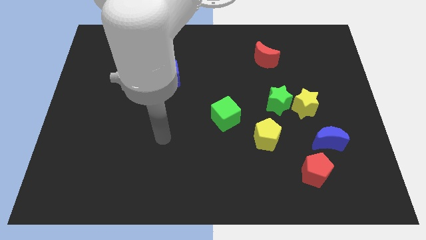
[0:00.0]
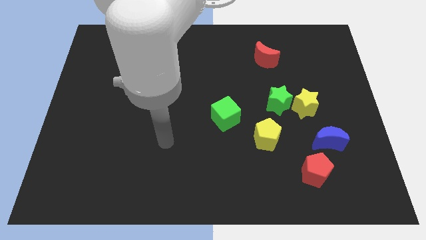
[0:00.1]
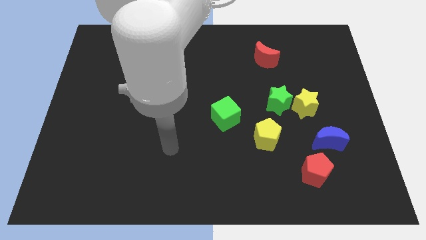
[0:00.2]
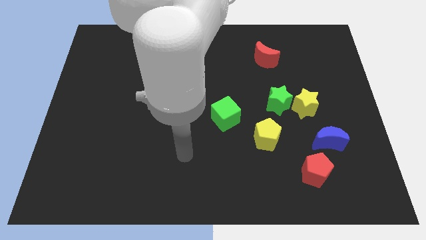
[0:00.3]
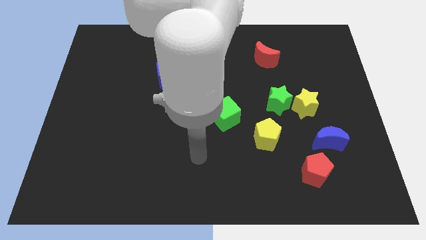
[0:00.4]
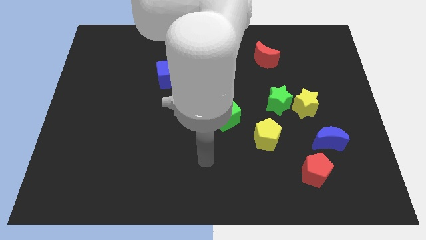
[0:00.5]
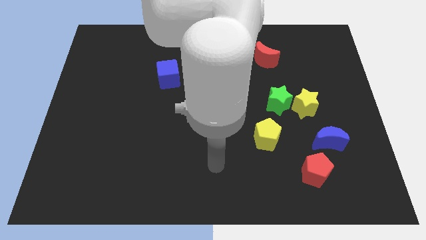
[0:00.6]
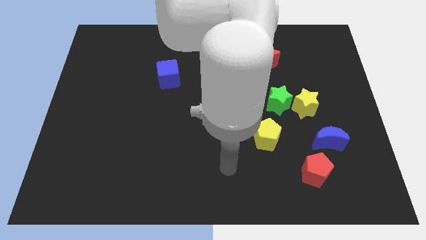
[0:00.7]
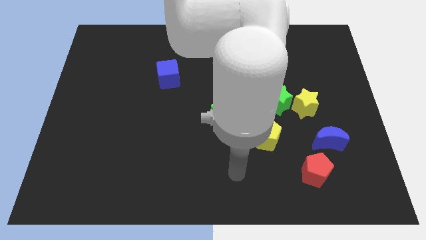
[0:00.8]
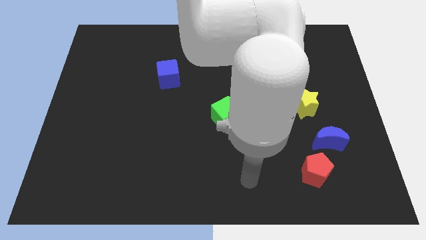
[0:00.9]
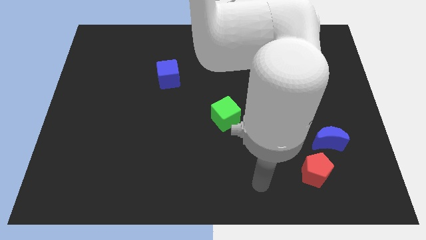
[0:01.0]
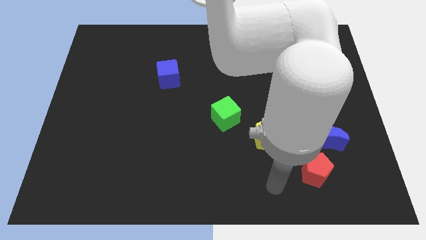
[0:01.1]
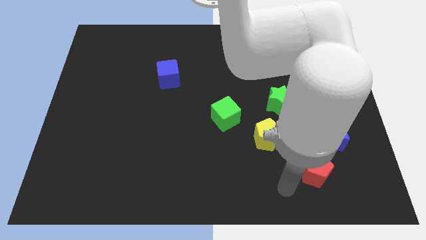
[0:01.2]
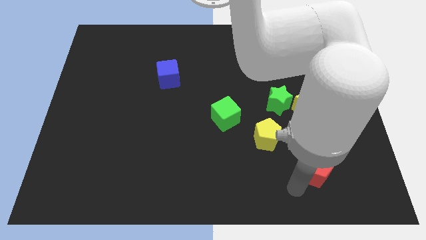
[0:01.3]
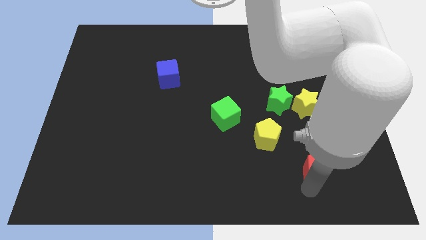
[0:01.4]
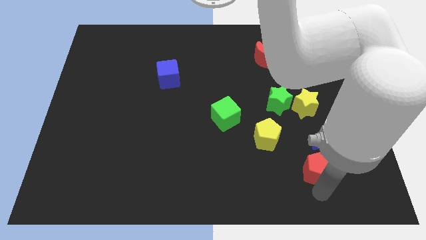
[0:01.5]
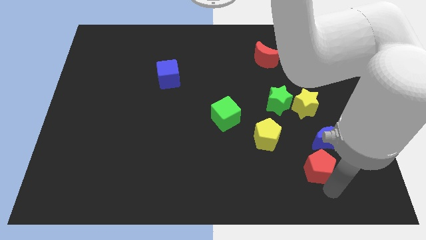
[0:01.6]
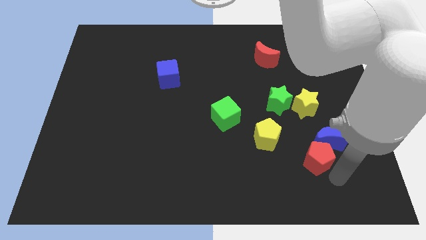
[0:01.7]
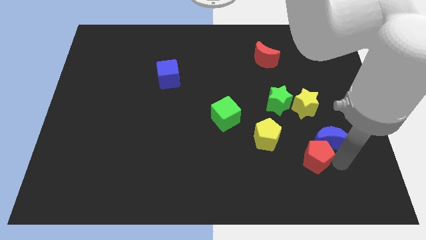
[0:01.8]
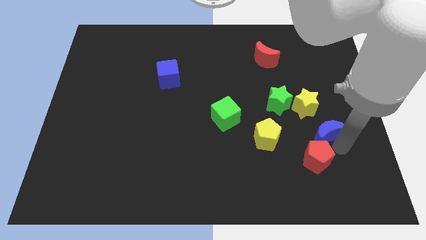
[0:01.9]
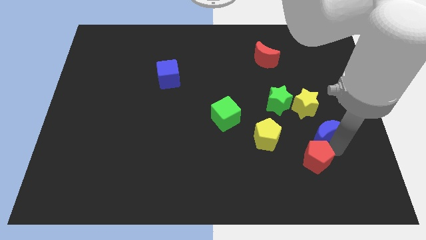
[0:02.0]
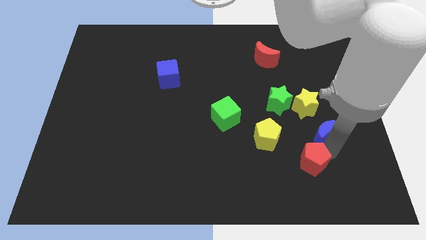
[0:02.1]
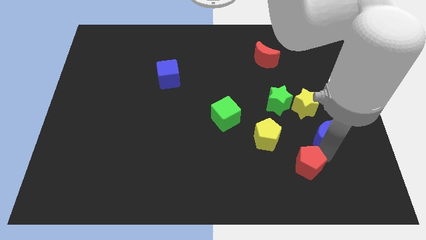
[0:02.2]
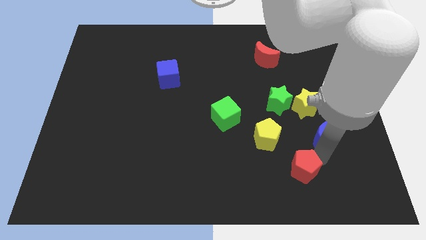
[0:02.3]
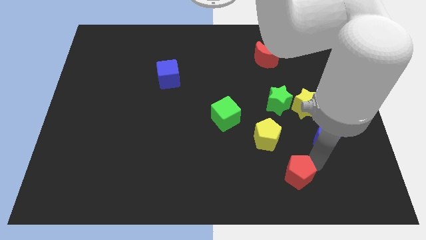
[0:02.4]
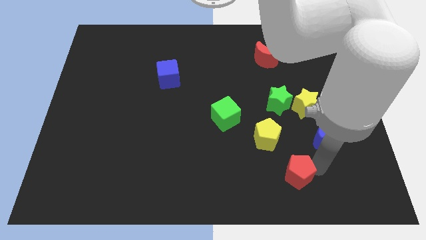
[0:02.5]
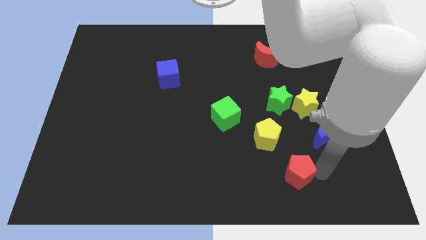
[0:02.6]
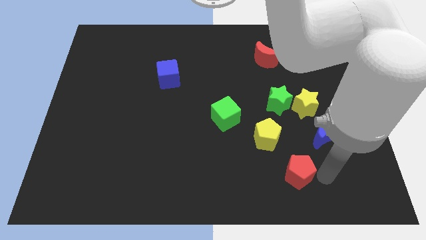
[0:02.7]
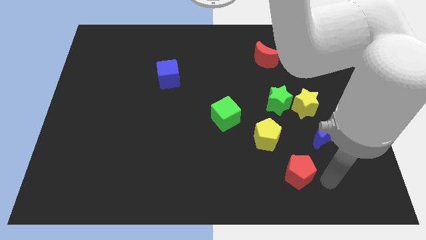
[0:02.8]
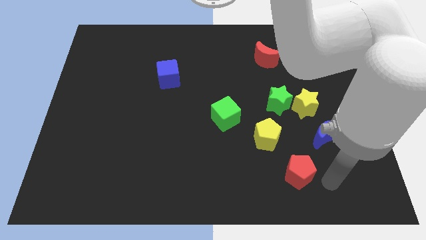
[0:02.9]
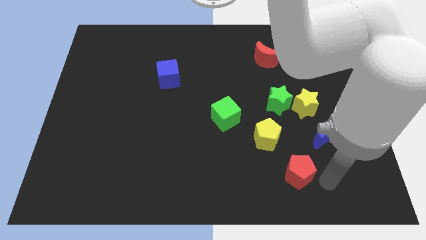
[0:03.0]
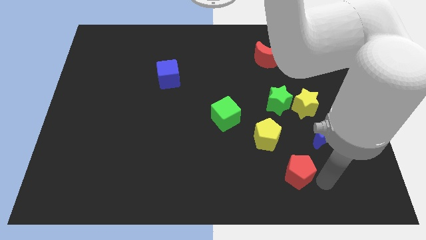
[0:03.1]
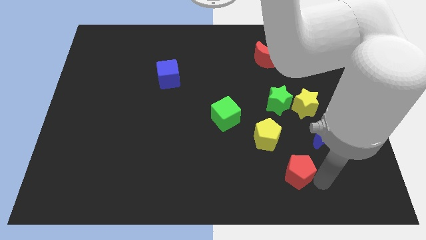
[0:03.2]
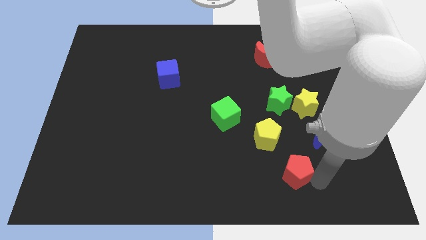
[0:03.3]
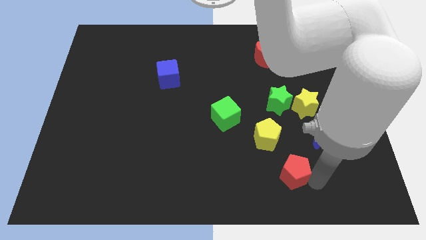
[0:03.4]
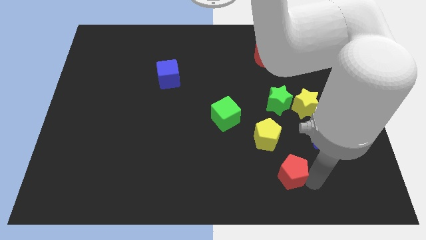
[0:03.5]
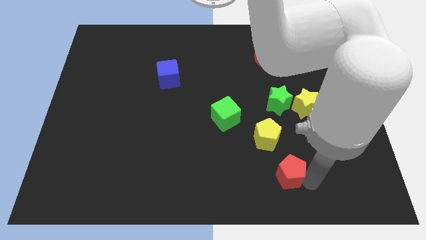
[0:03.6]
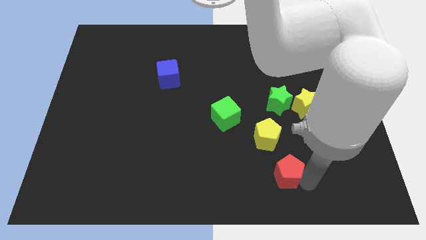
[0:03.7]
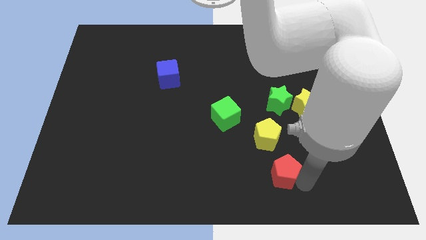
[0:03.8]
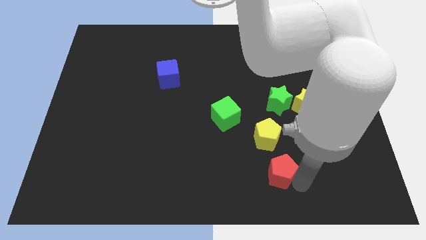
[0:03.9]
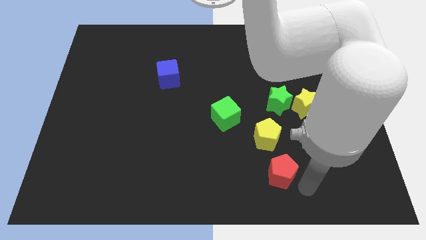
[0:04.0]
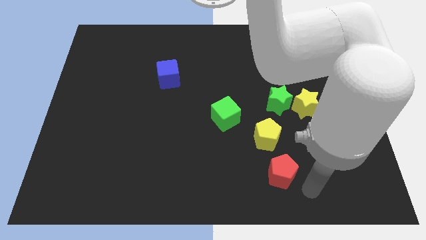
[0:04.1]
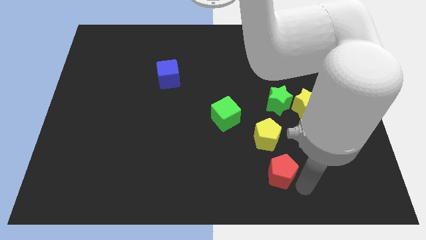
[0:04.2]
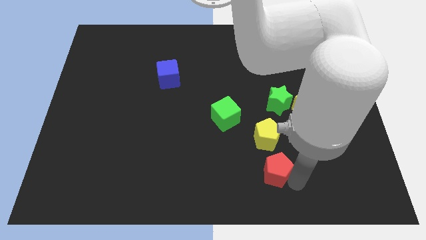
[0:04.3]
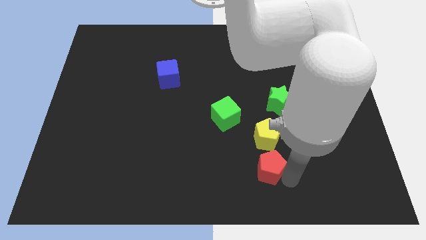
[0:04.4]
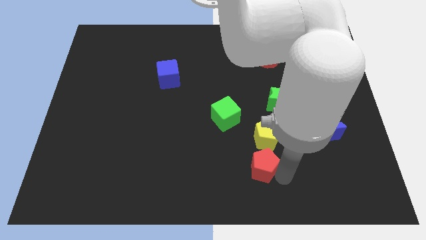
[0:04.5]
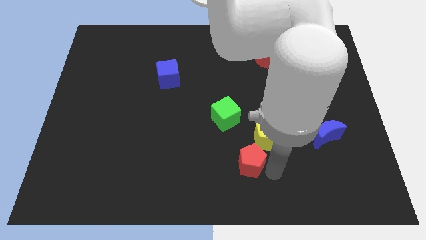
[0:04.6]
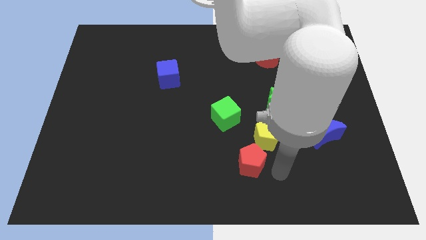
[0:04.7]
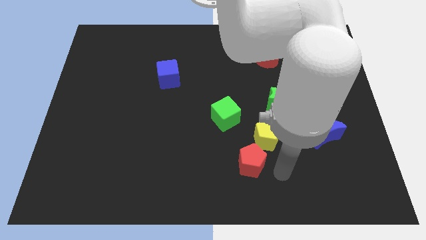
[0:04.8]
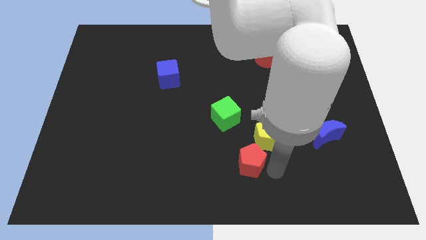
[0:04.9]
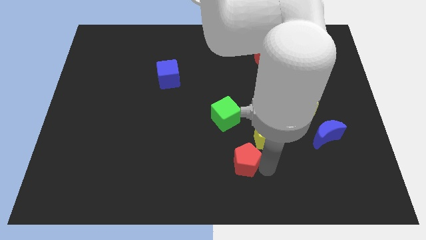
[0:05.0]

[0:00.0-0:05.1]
move the red pentagon below the green cube

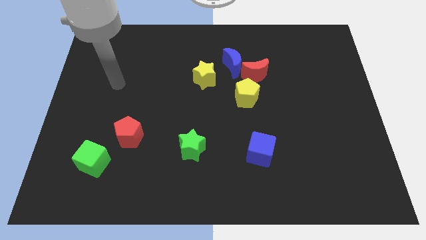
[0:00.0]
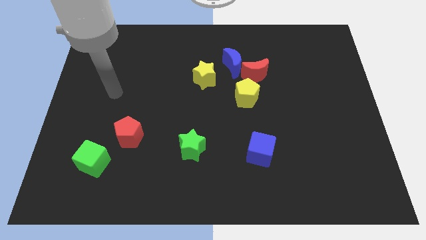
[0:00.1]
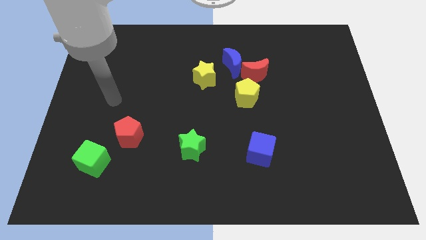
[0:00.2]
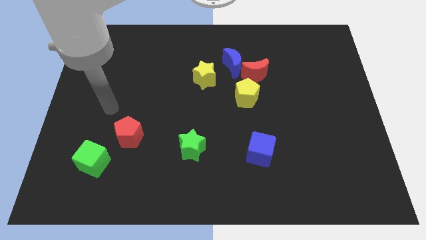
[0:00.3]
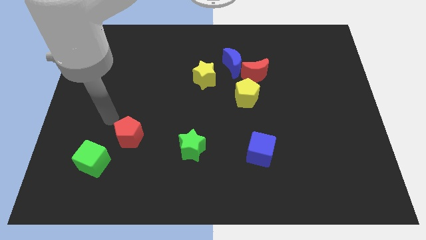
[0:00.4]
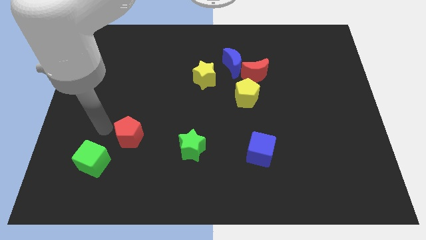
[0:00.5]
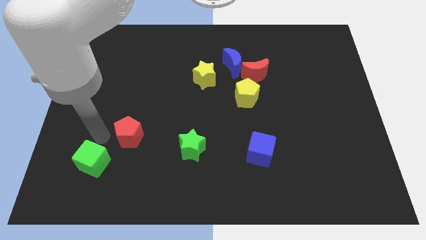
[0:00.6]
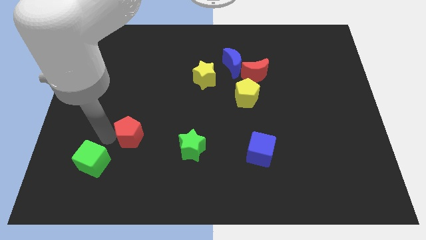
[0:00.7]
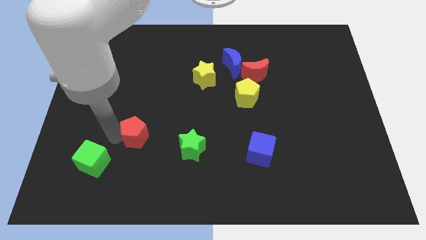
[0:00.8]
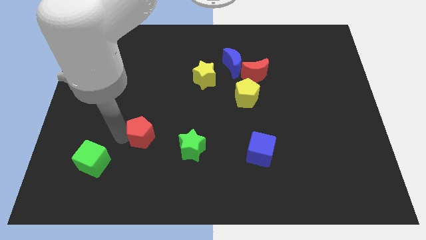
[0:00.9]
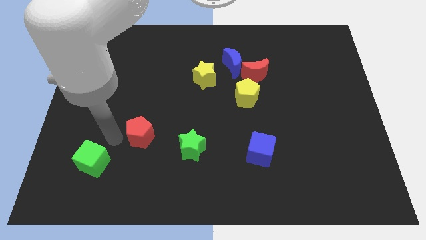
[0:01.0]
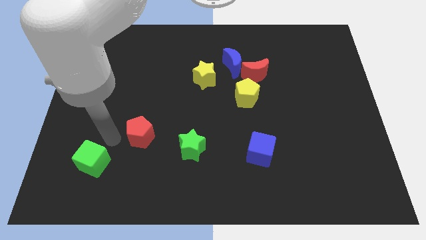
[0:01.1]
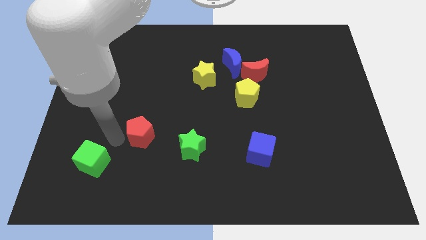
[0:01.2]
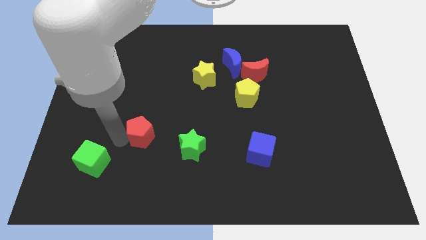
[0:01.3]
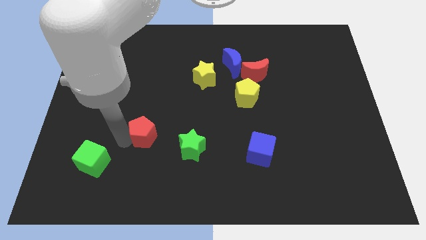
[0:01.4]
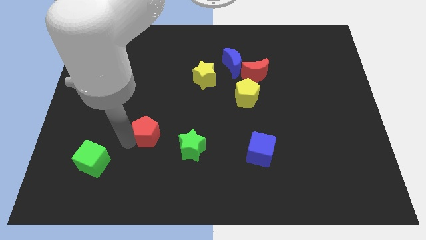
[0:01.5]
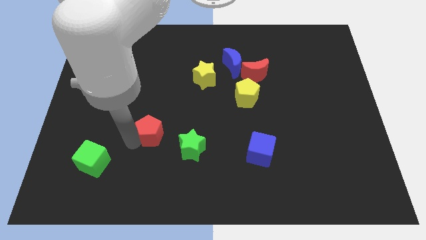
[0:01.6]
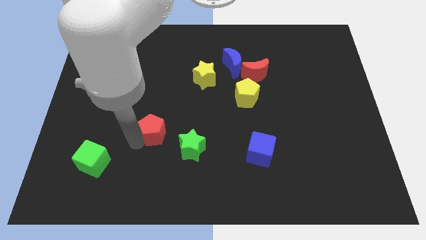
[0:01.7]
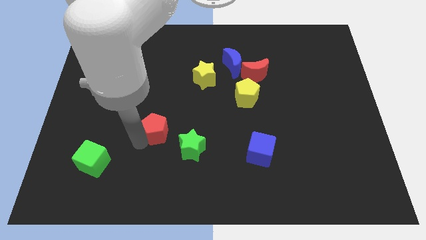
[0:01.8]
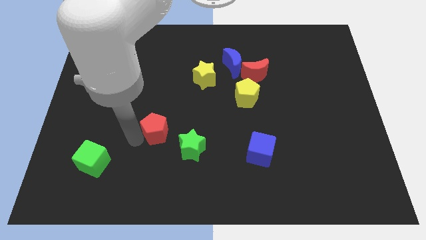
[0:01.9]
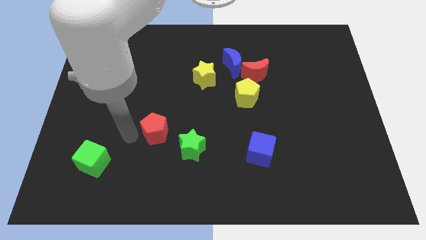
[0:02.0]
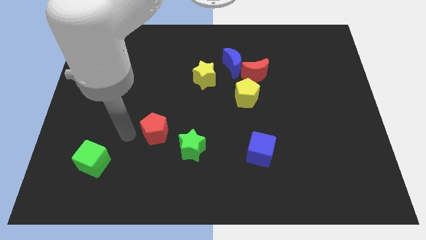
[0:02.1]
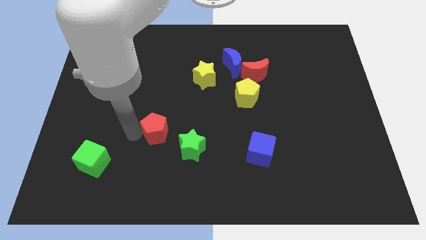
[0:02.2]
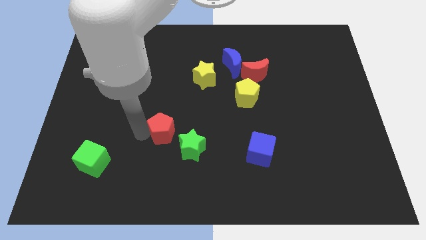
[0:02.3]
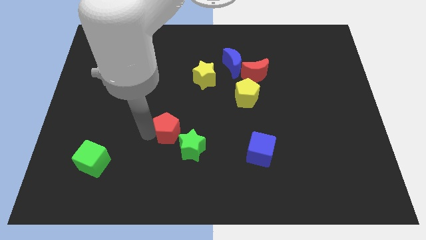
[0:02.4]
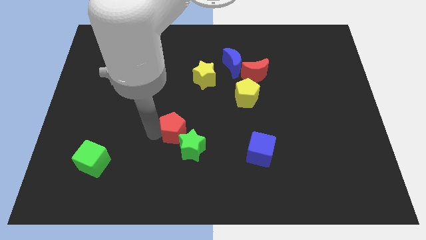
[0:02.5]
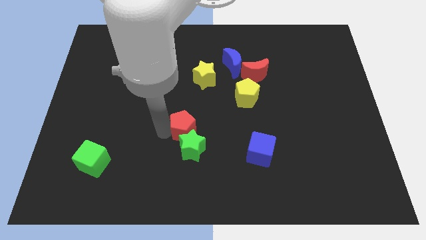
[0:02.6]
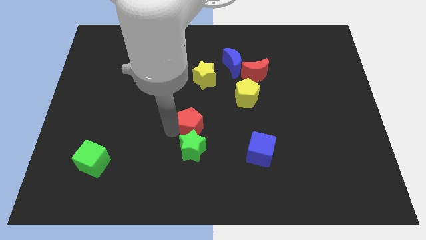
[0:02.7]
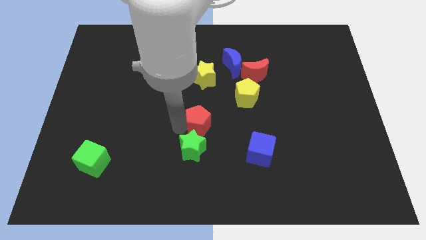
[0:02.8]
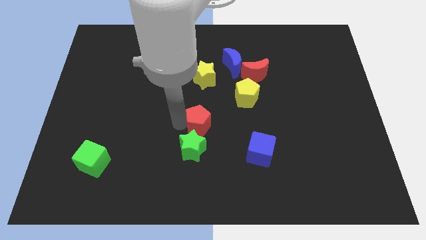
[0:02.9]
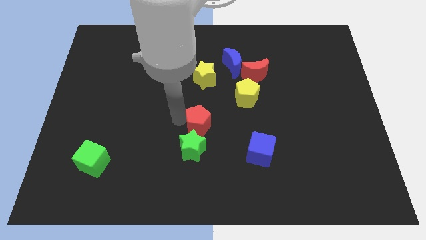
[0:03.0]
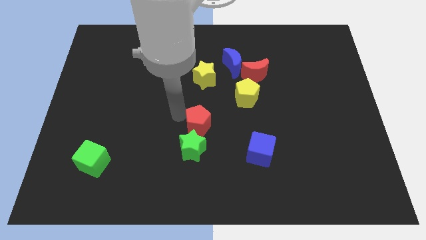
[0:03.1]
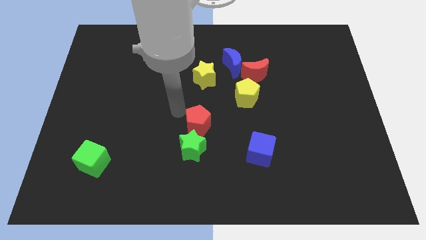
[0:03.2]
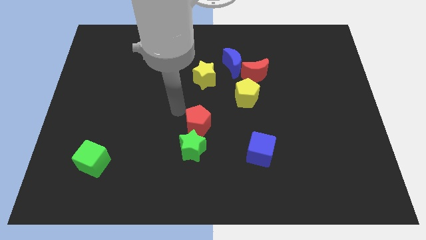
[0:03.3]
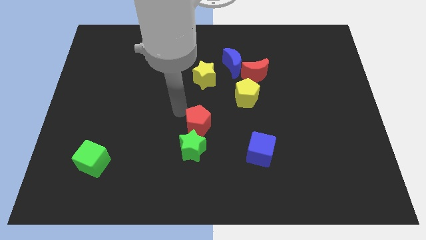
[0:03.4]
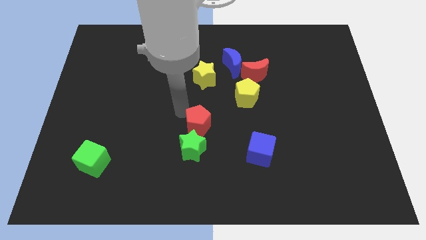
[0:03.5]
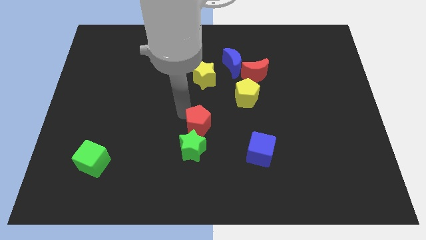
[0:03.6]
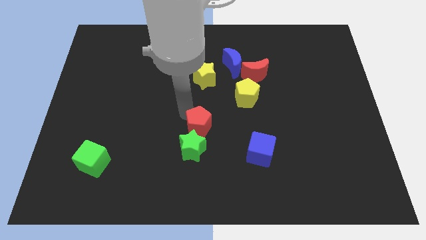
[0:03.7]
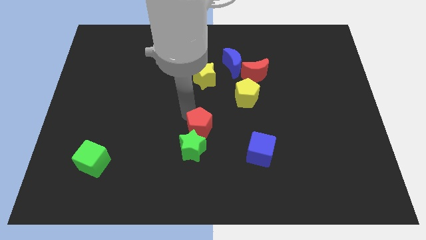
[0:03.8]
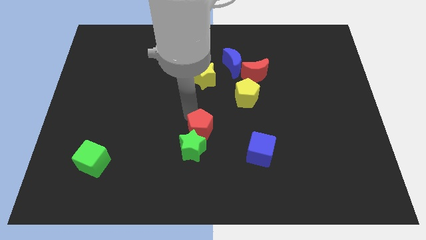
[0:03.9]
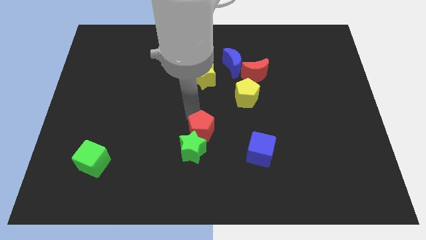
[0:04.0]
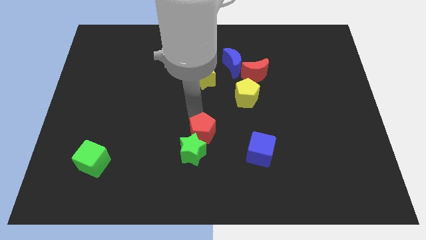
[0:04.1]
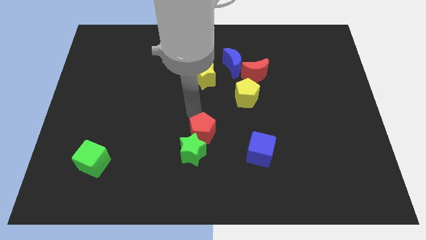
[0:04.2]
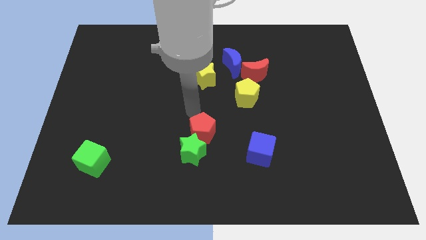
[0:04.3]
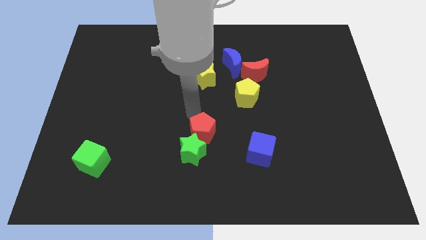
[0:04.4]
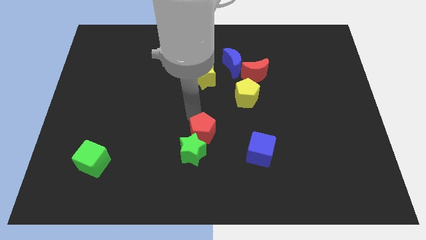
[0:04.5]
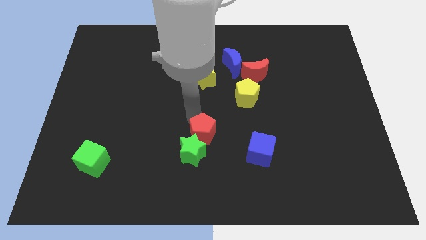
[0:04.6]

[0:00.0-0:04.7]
slide the red pentagon just left of the blue cube
